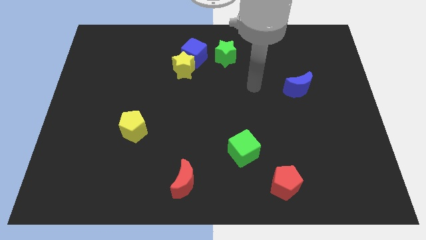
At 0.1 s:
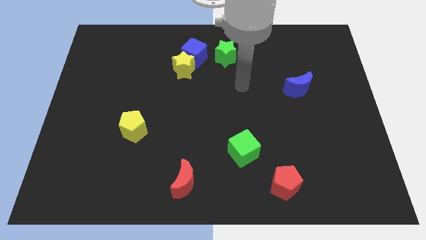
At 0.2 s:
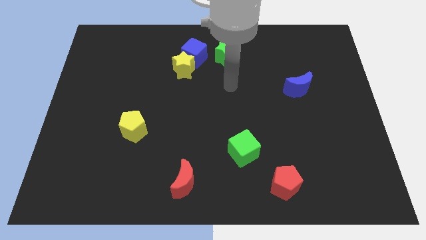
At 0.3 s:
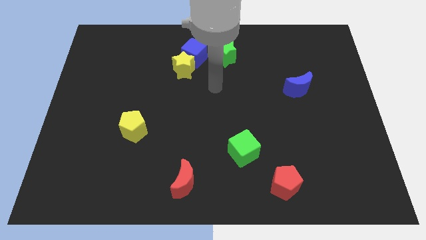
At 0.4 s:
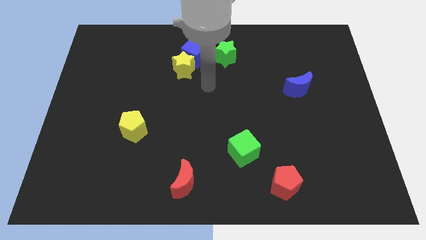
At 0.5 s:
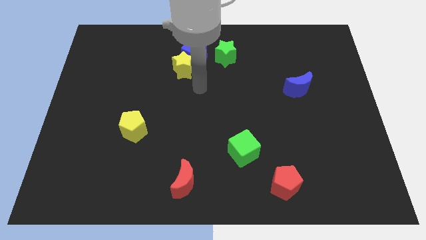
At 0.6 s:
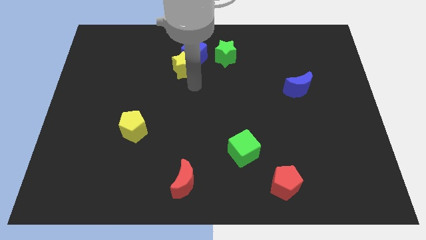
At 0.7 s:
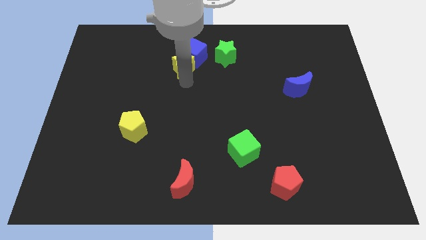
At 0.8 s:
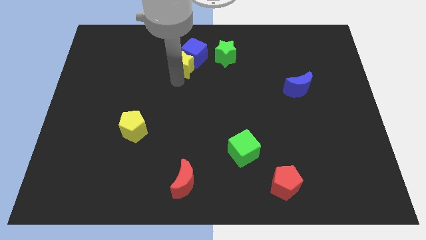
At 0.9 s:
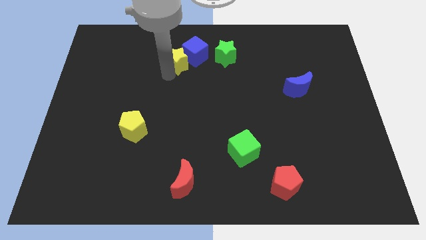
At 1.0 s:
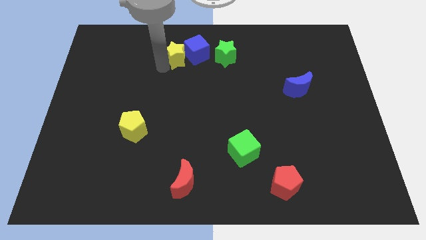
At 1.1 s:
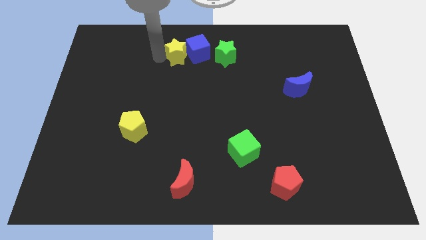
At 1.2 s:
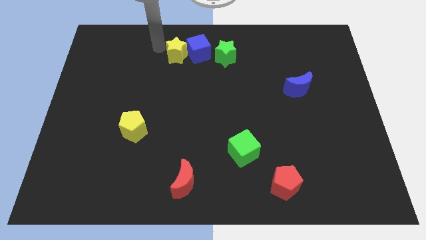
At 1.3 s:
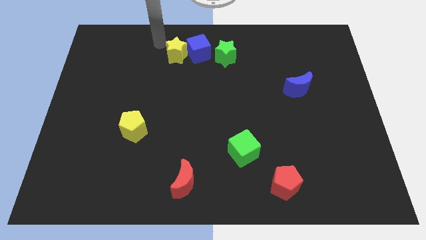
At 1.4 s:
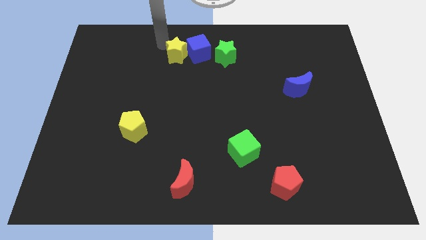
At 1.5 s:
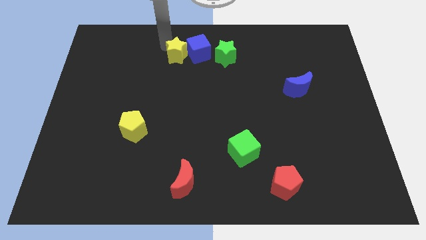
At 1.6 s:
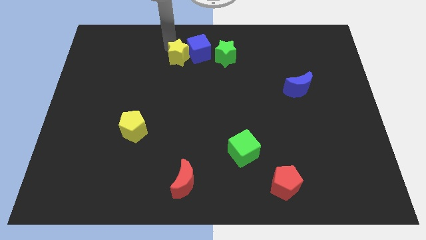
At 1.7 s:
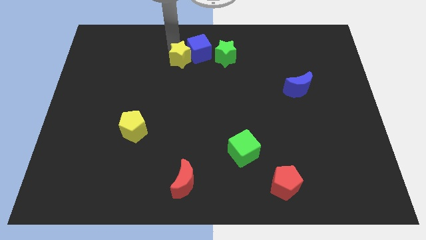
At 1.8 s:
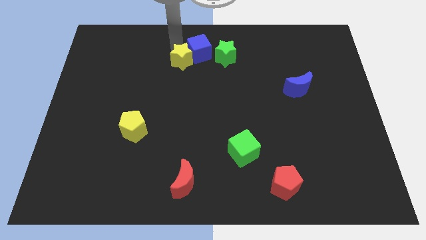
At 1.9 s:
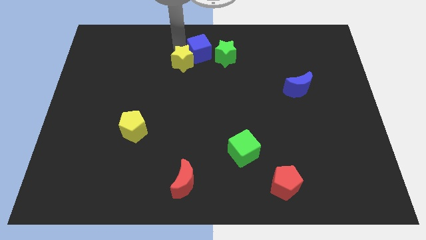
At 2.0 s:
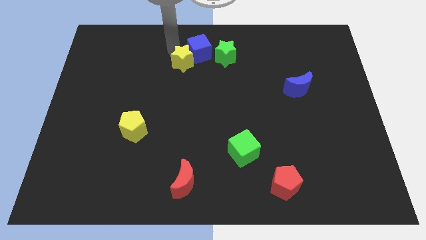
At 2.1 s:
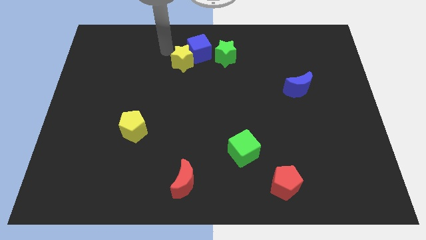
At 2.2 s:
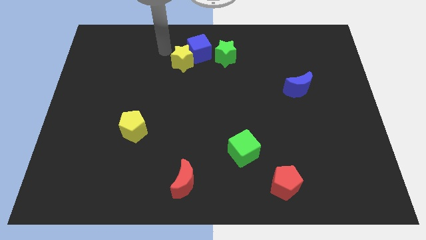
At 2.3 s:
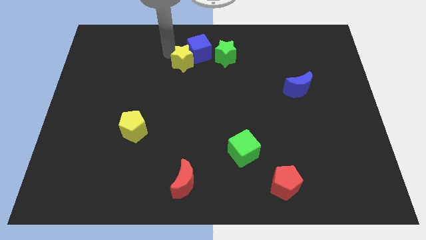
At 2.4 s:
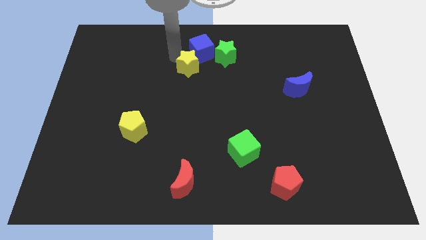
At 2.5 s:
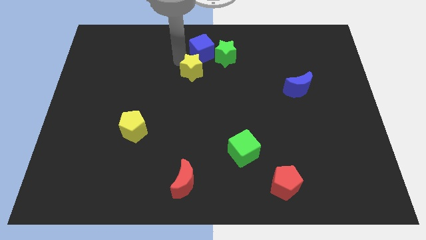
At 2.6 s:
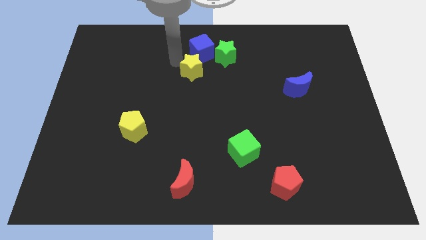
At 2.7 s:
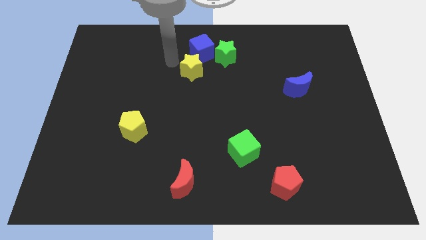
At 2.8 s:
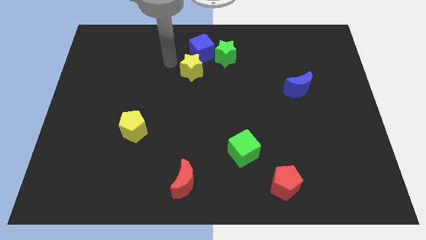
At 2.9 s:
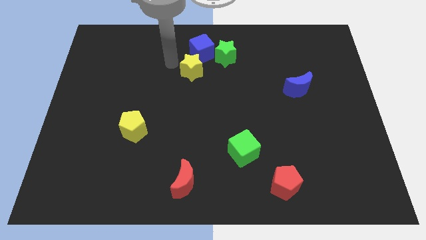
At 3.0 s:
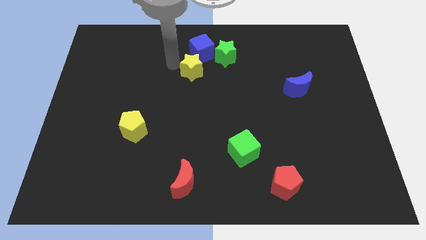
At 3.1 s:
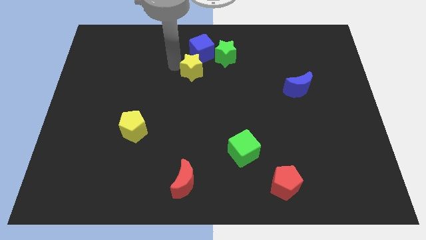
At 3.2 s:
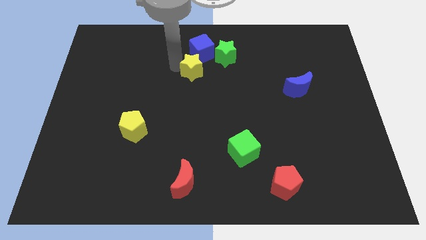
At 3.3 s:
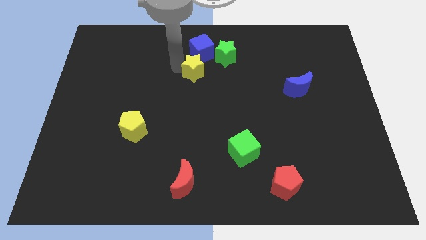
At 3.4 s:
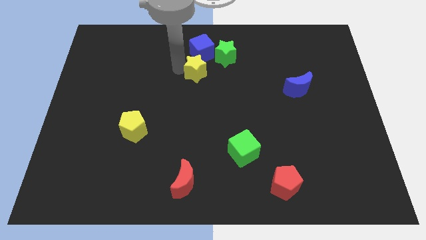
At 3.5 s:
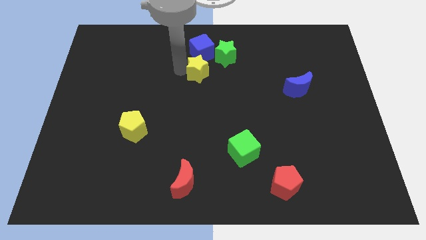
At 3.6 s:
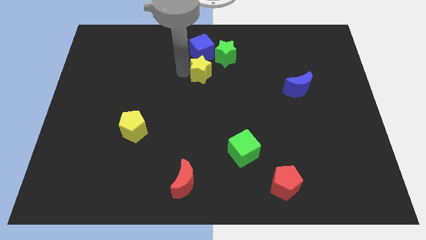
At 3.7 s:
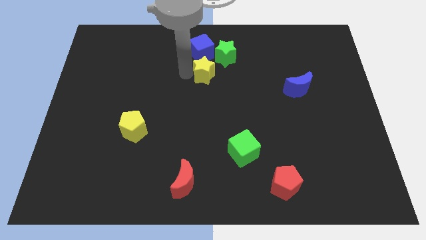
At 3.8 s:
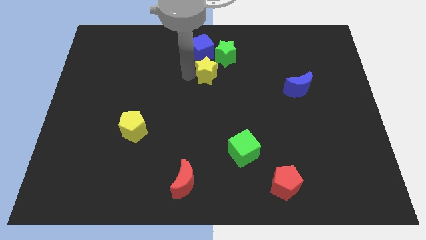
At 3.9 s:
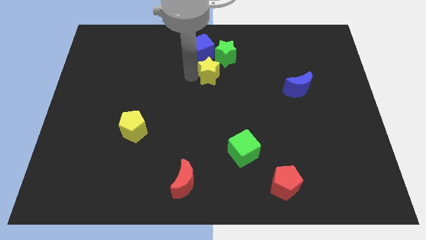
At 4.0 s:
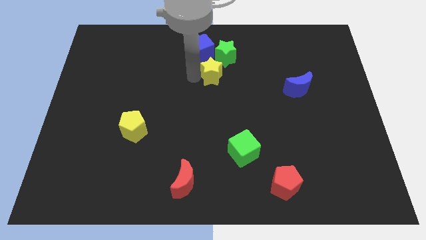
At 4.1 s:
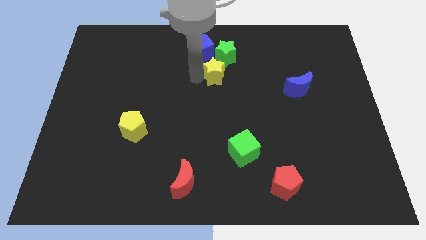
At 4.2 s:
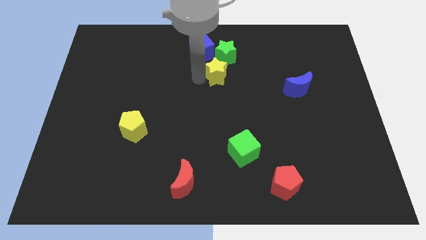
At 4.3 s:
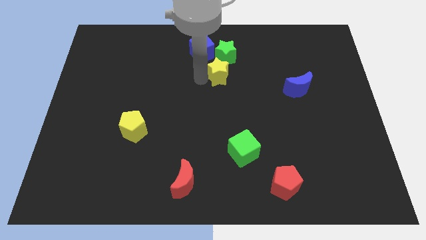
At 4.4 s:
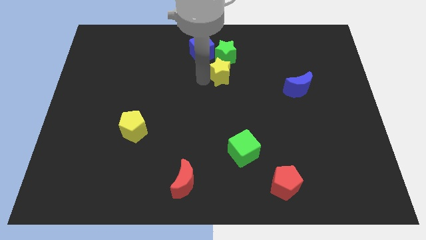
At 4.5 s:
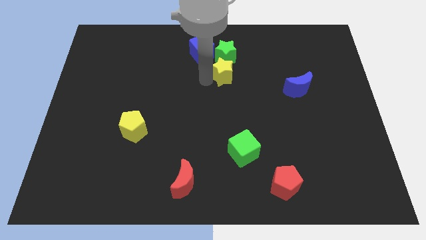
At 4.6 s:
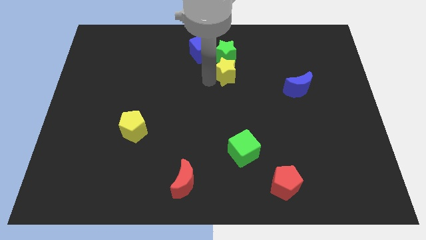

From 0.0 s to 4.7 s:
move the yellow star to the bottom right side of the green star

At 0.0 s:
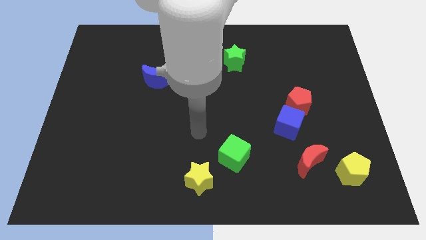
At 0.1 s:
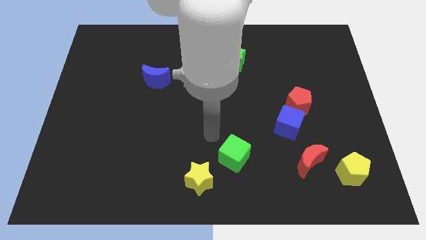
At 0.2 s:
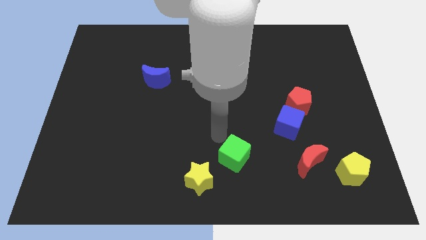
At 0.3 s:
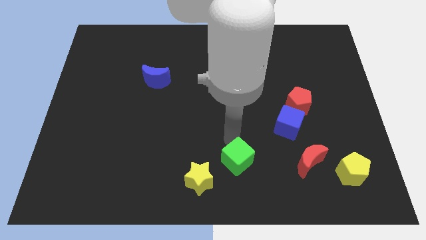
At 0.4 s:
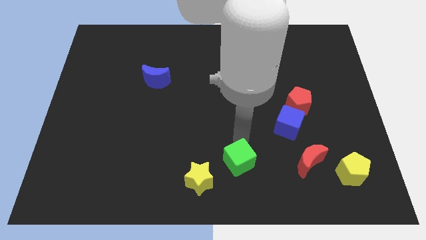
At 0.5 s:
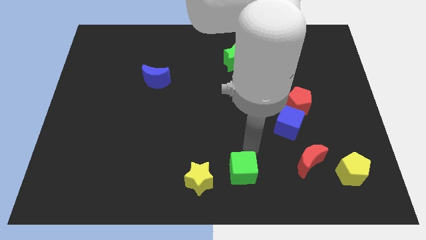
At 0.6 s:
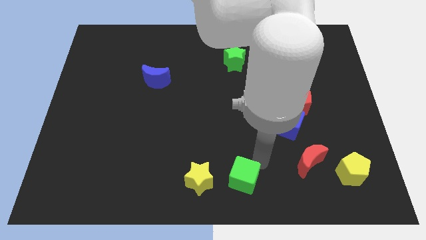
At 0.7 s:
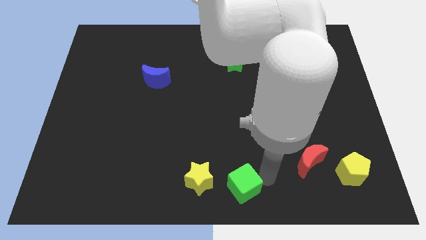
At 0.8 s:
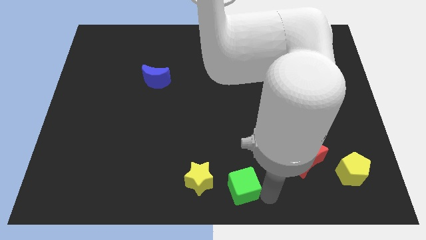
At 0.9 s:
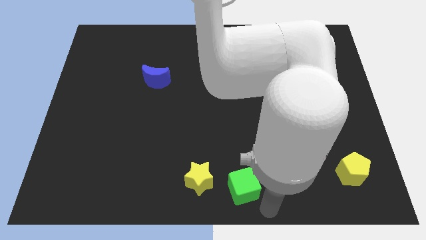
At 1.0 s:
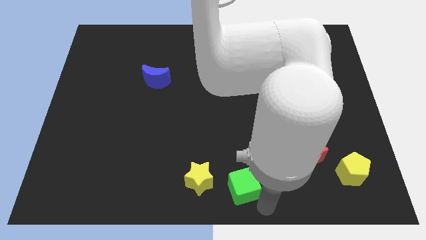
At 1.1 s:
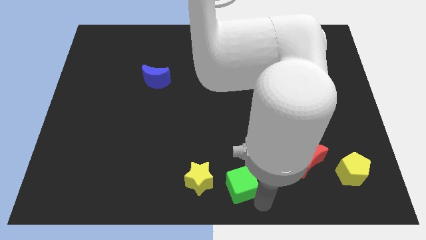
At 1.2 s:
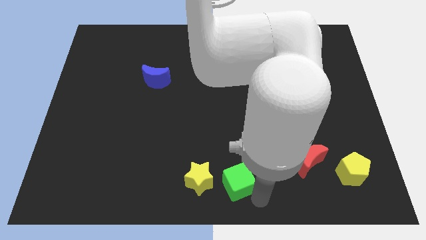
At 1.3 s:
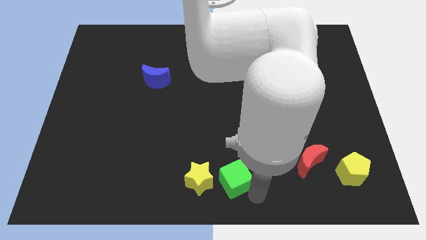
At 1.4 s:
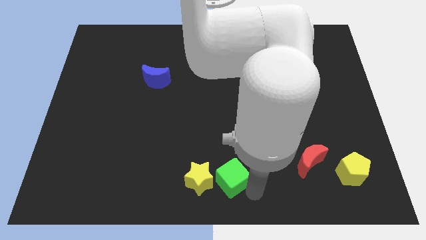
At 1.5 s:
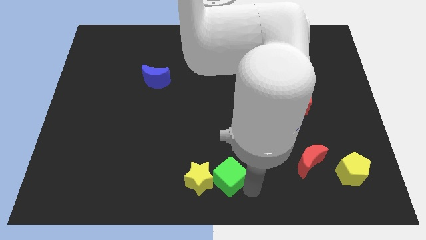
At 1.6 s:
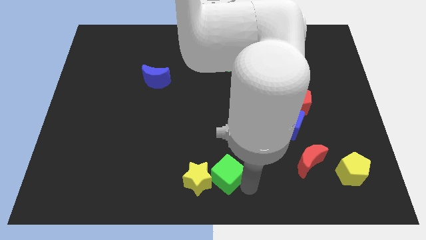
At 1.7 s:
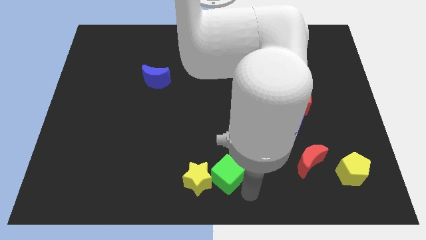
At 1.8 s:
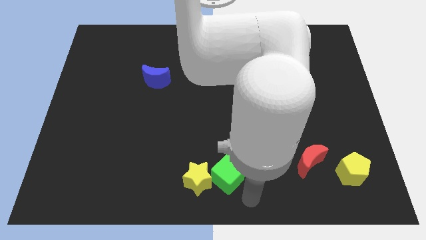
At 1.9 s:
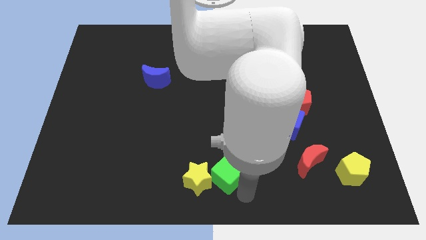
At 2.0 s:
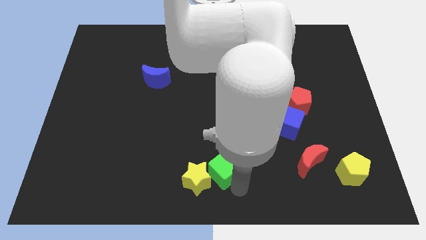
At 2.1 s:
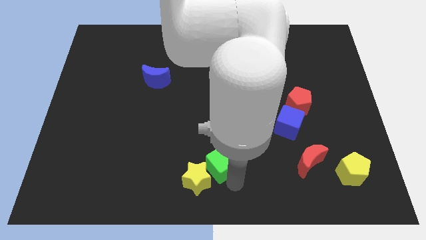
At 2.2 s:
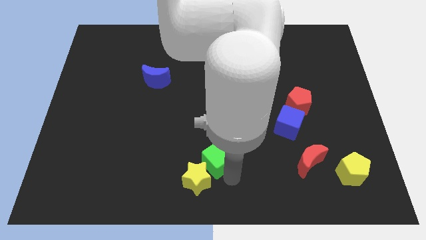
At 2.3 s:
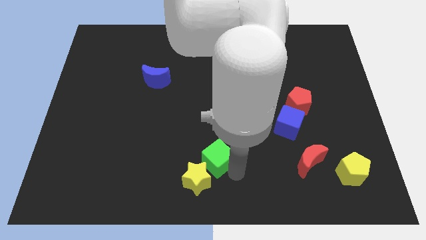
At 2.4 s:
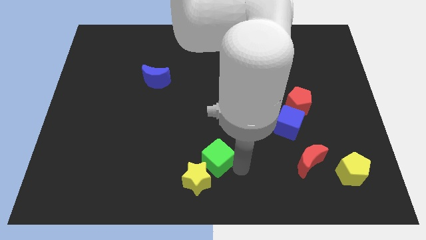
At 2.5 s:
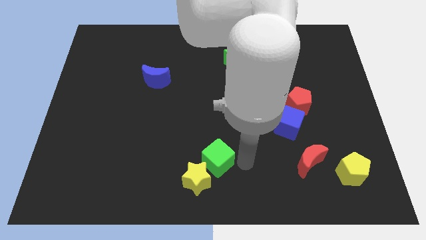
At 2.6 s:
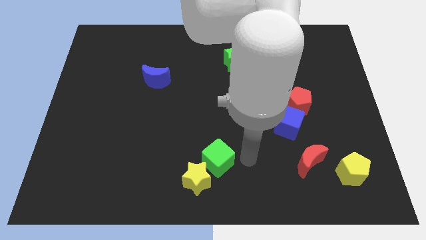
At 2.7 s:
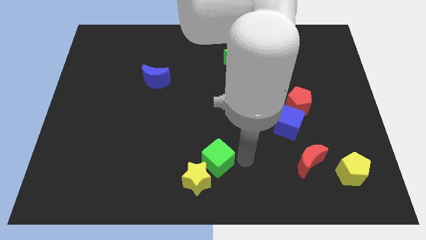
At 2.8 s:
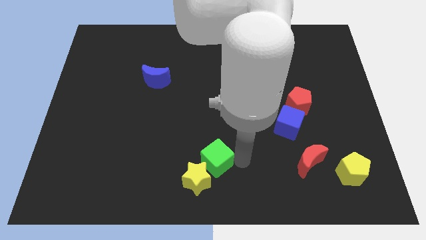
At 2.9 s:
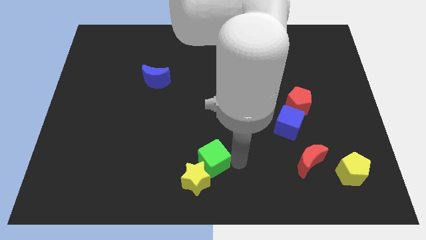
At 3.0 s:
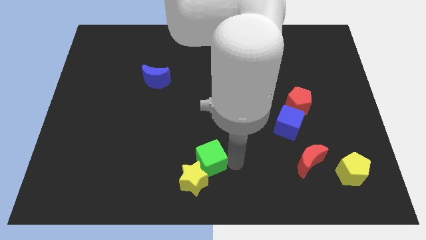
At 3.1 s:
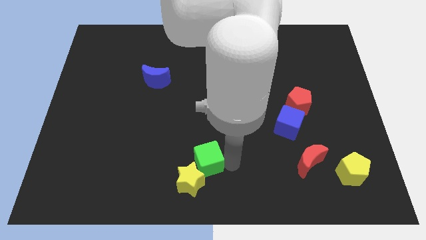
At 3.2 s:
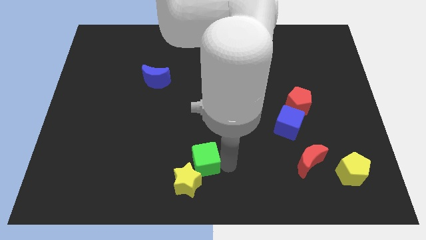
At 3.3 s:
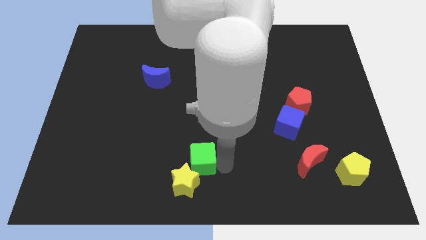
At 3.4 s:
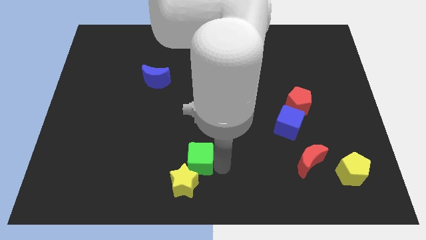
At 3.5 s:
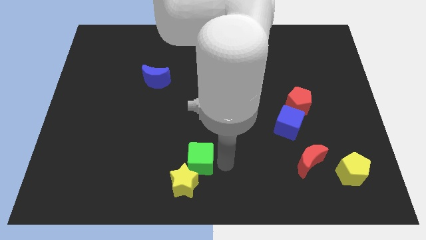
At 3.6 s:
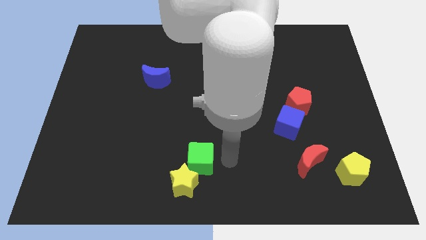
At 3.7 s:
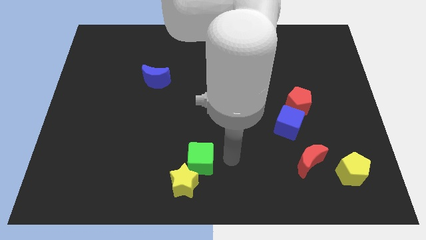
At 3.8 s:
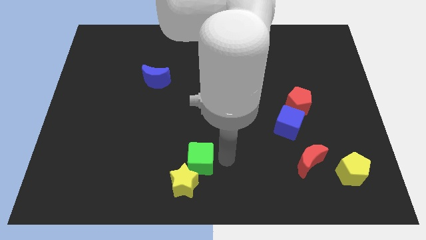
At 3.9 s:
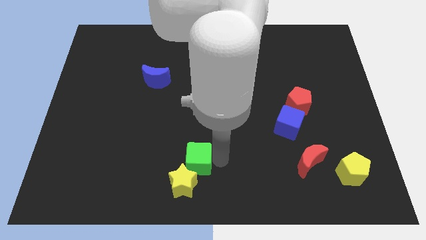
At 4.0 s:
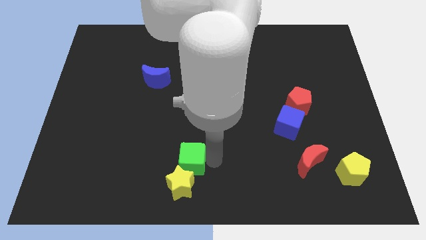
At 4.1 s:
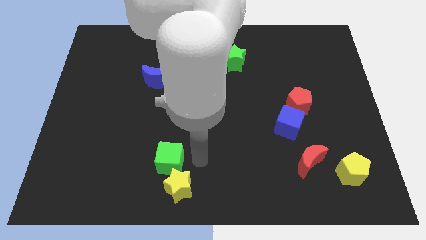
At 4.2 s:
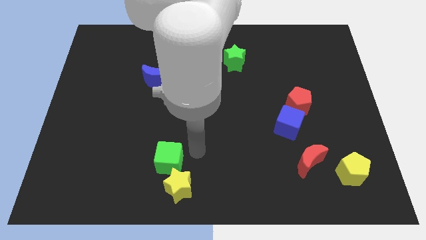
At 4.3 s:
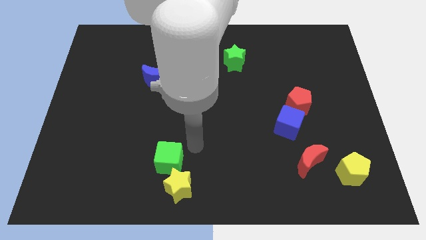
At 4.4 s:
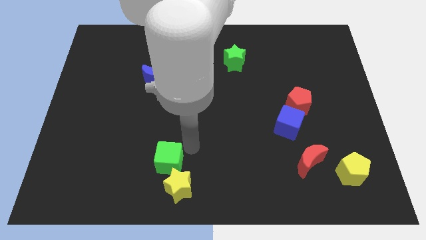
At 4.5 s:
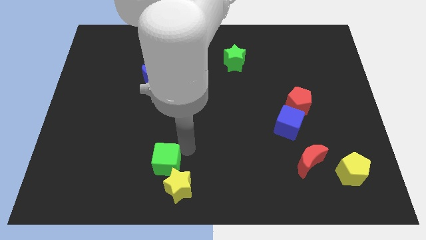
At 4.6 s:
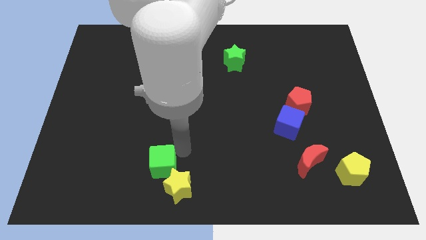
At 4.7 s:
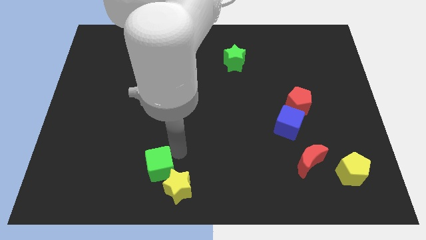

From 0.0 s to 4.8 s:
move the green cube to the left side of the yellow star
